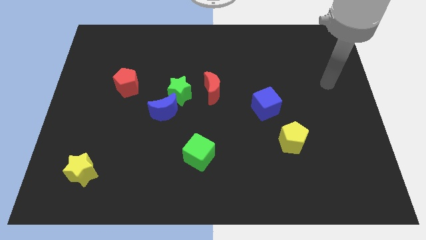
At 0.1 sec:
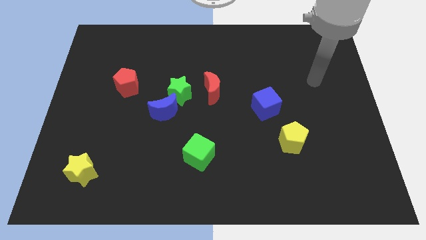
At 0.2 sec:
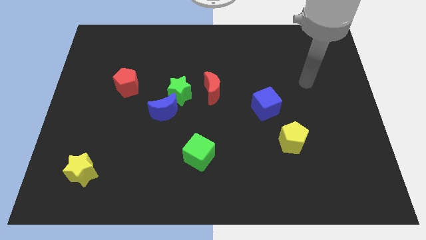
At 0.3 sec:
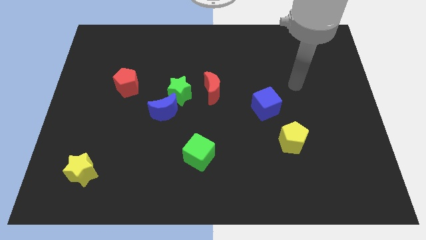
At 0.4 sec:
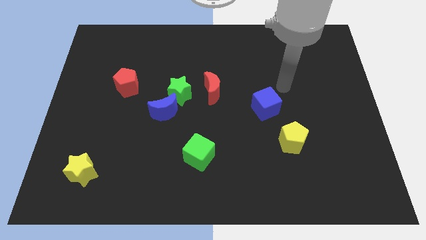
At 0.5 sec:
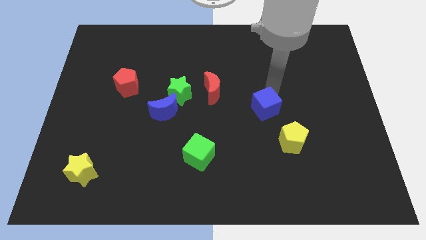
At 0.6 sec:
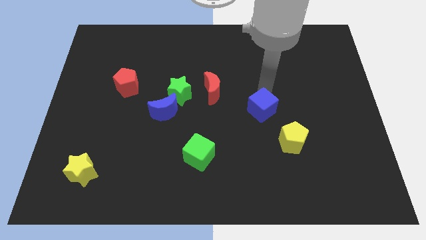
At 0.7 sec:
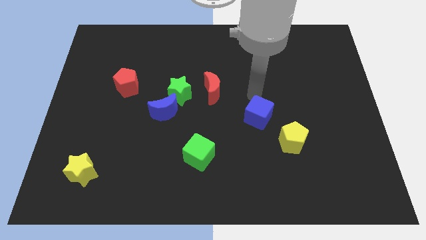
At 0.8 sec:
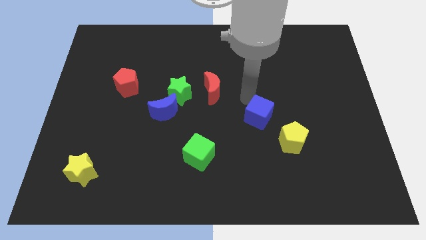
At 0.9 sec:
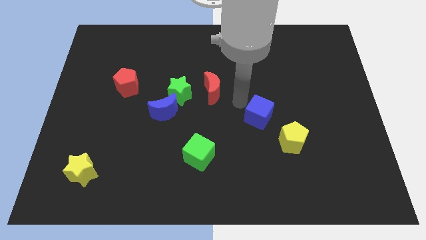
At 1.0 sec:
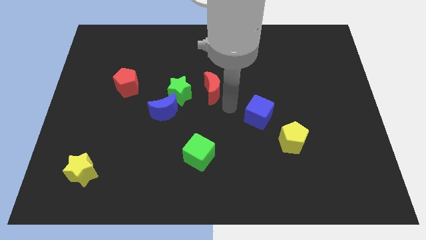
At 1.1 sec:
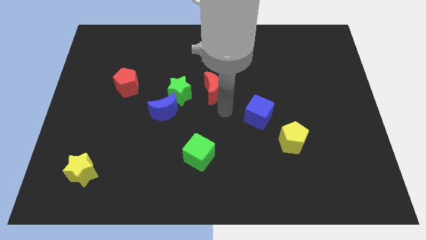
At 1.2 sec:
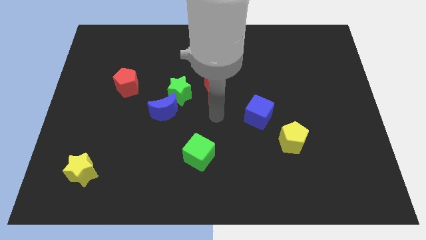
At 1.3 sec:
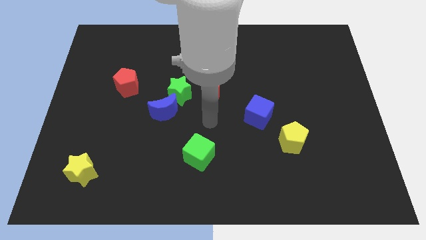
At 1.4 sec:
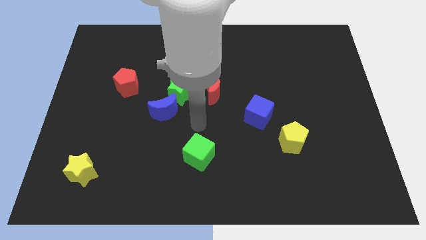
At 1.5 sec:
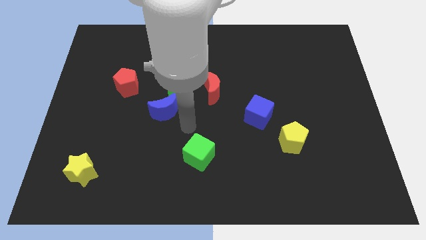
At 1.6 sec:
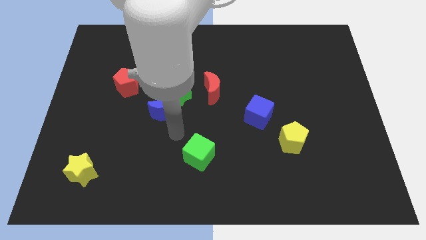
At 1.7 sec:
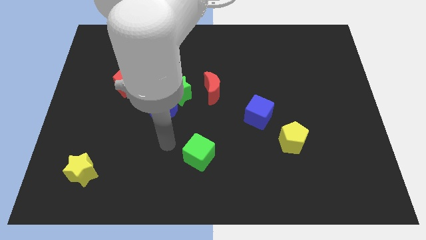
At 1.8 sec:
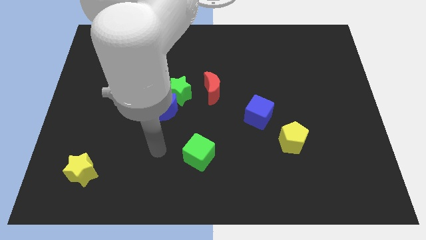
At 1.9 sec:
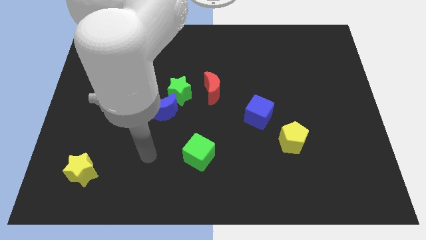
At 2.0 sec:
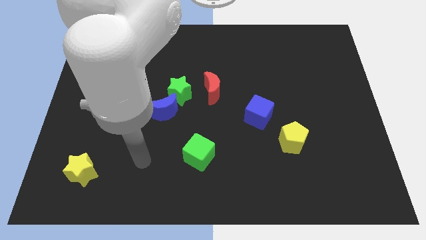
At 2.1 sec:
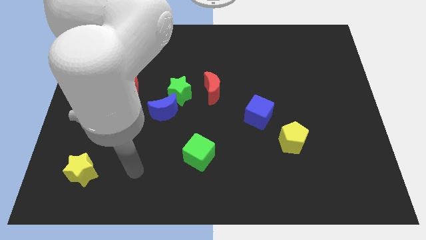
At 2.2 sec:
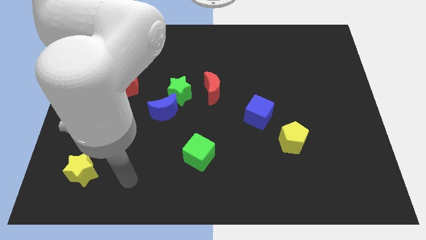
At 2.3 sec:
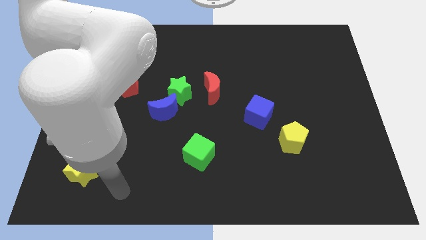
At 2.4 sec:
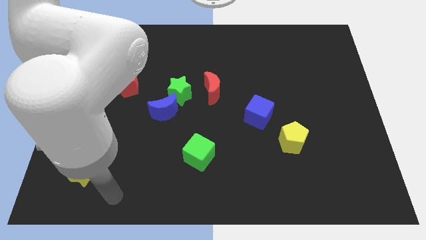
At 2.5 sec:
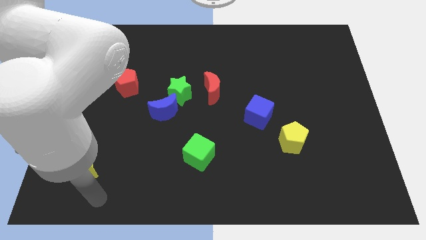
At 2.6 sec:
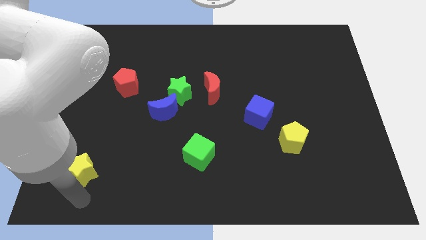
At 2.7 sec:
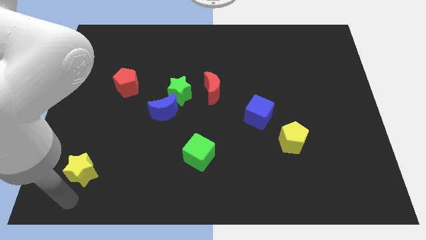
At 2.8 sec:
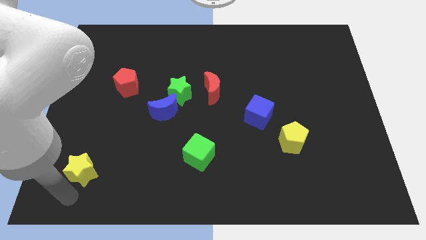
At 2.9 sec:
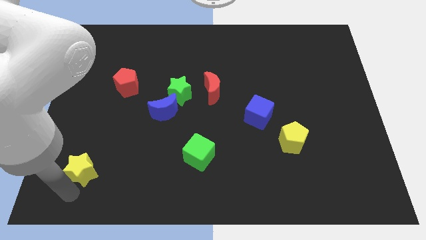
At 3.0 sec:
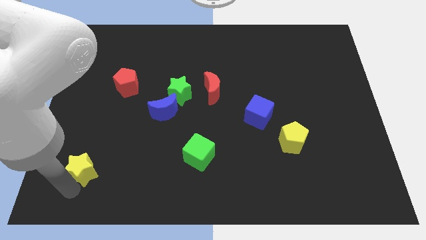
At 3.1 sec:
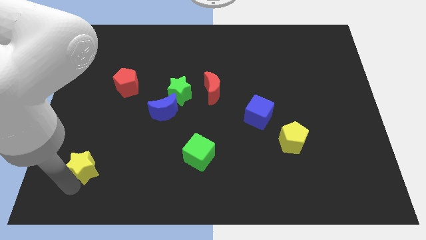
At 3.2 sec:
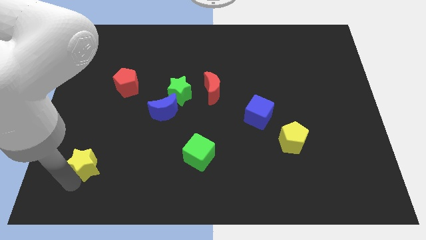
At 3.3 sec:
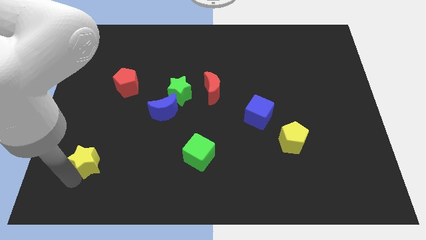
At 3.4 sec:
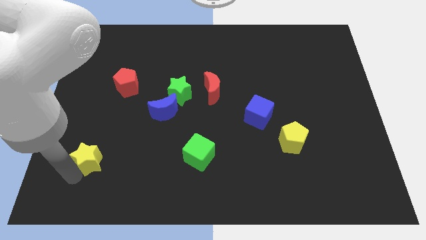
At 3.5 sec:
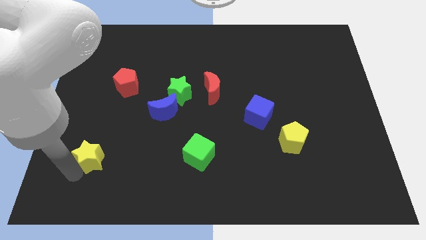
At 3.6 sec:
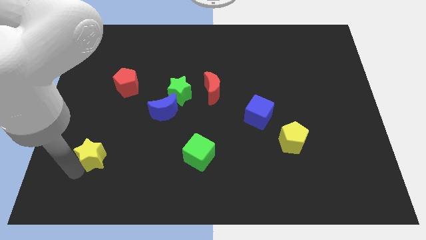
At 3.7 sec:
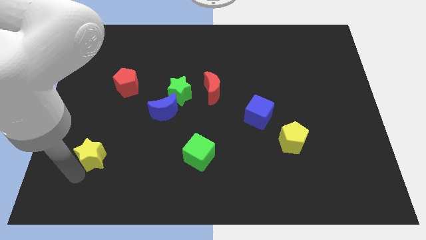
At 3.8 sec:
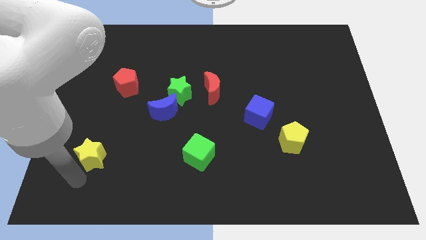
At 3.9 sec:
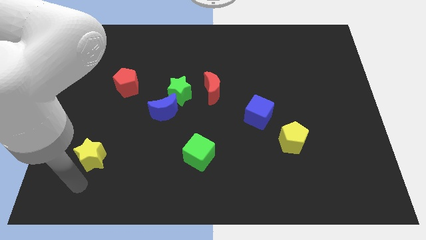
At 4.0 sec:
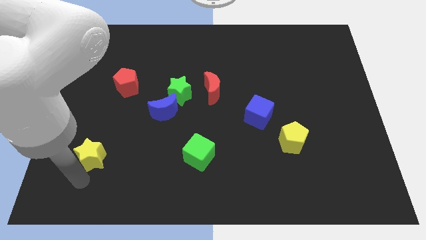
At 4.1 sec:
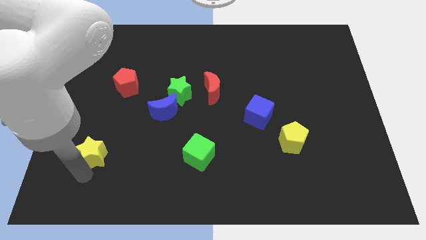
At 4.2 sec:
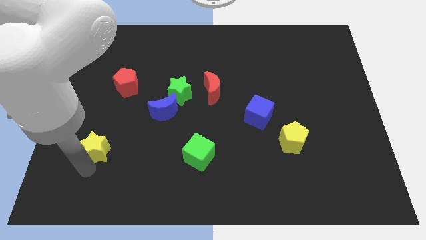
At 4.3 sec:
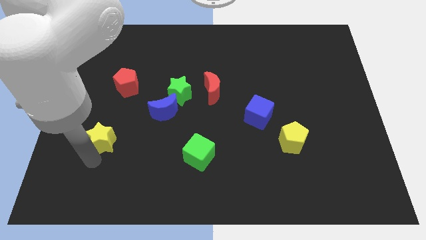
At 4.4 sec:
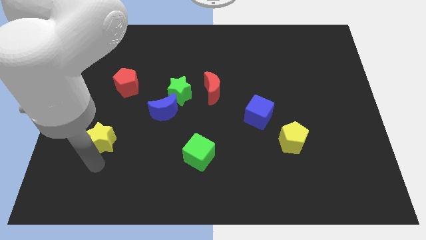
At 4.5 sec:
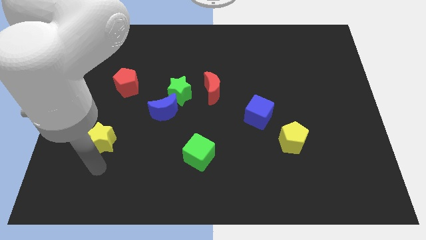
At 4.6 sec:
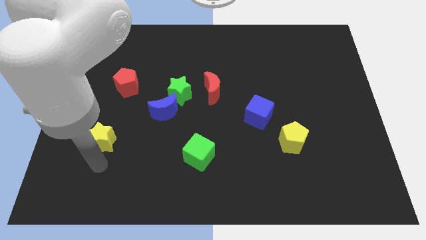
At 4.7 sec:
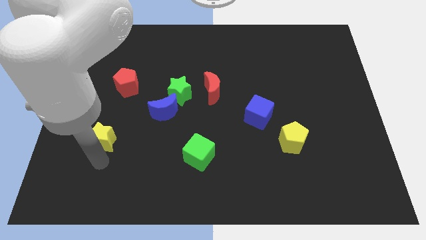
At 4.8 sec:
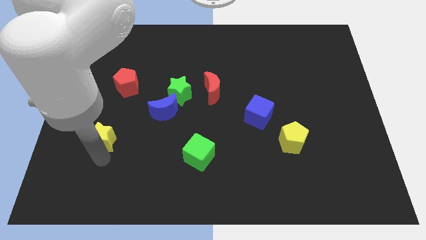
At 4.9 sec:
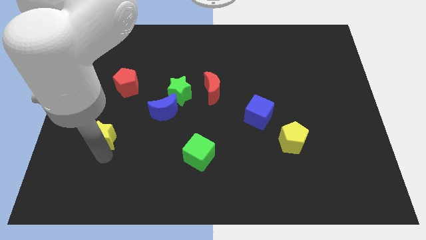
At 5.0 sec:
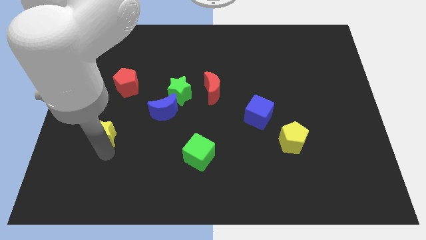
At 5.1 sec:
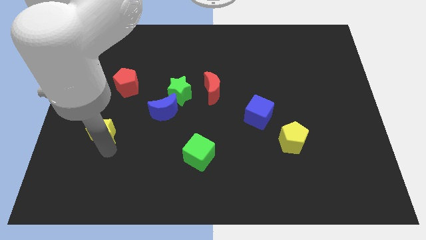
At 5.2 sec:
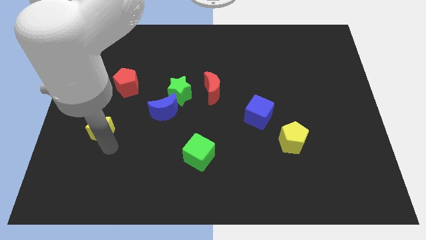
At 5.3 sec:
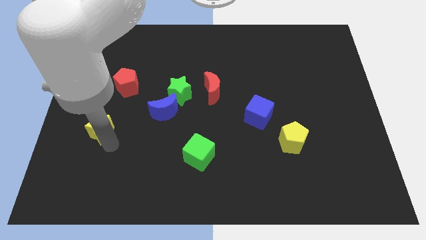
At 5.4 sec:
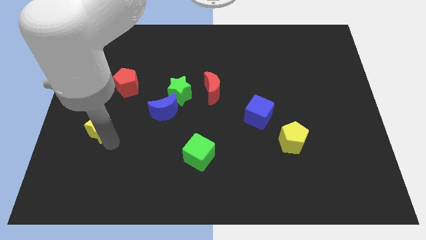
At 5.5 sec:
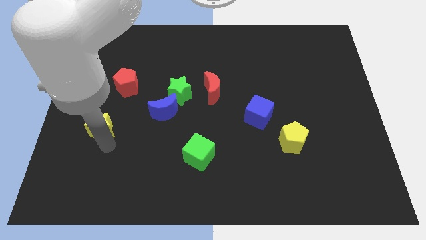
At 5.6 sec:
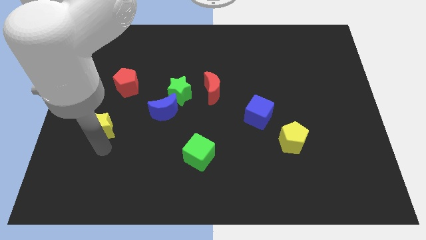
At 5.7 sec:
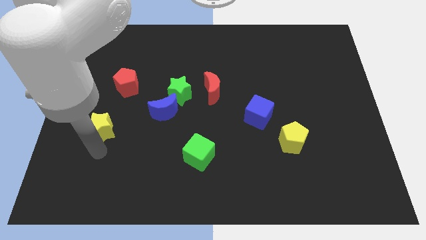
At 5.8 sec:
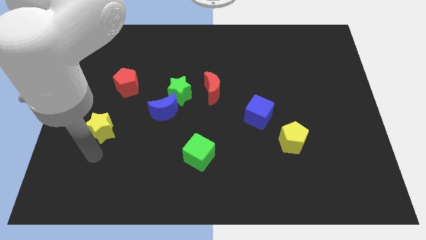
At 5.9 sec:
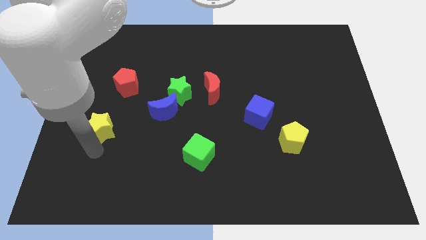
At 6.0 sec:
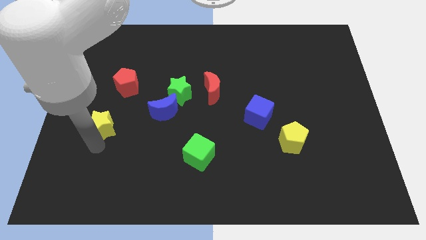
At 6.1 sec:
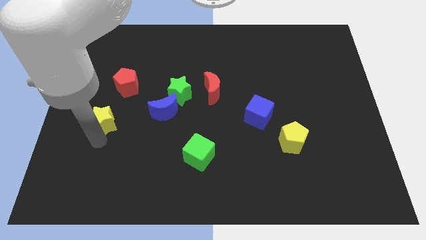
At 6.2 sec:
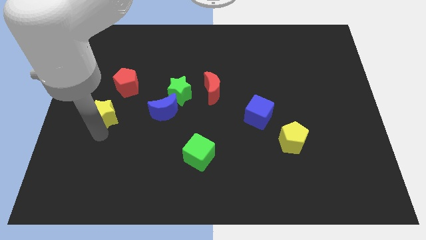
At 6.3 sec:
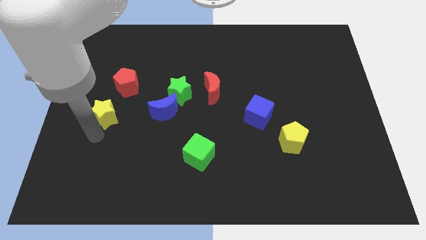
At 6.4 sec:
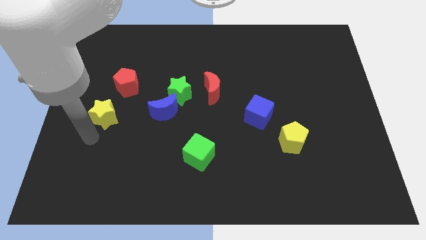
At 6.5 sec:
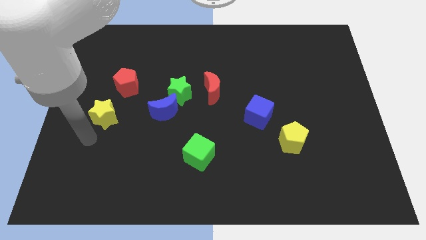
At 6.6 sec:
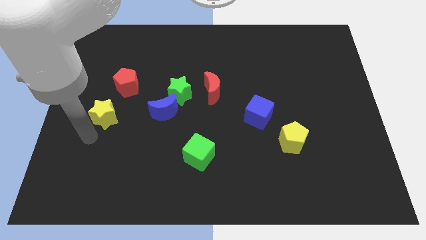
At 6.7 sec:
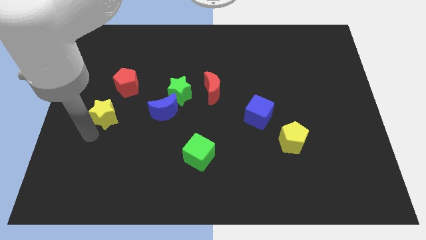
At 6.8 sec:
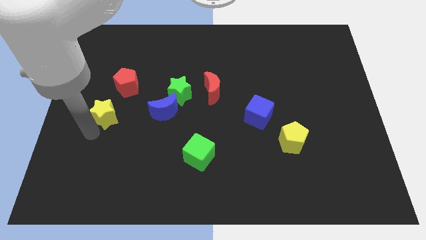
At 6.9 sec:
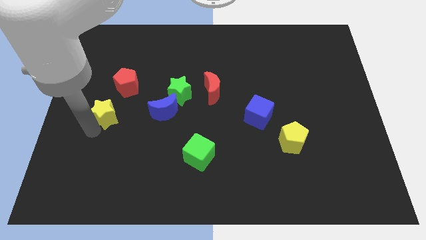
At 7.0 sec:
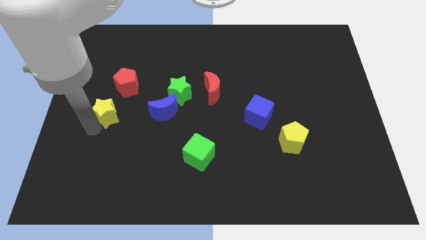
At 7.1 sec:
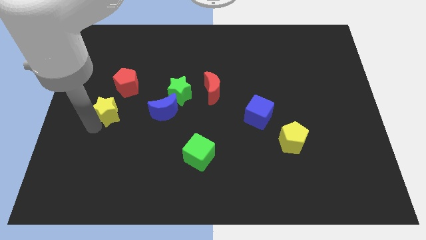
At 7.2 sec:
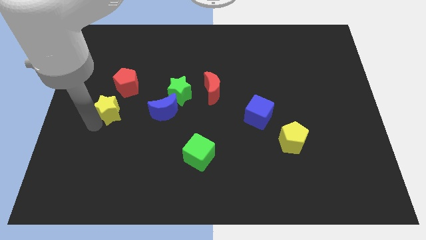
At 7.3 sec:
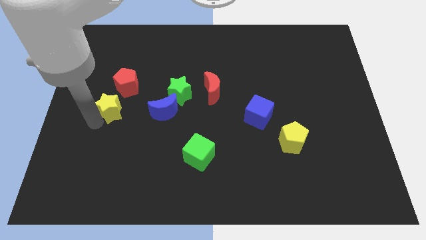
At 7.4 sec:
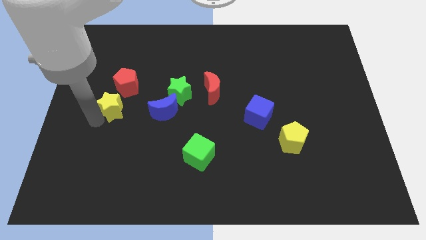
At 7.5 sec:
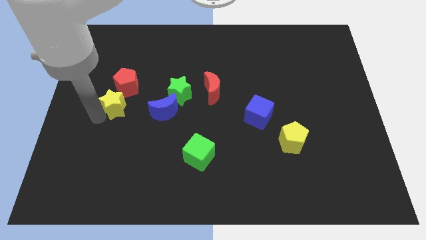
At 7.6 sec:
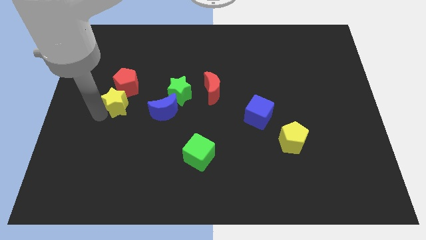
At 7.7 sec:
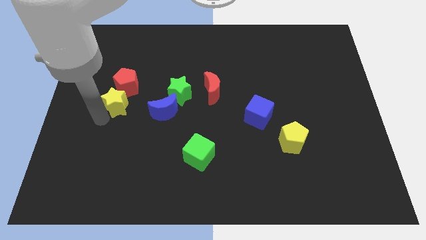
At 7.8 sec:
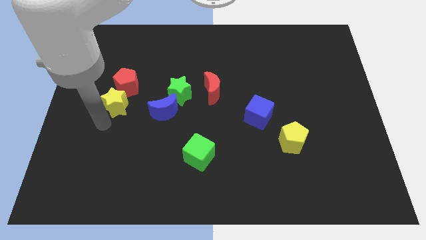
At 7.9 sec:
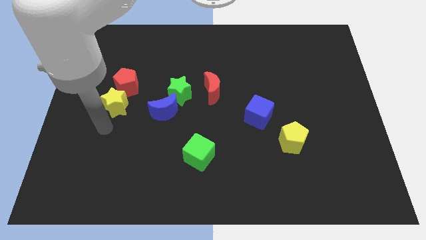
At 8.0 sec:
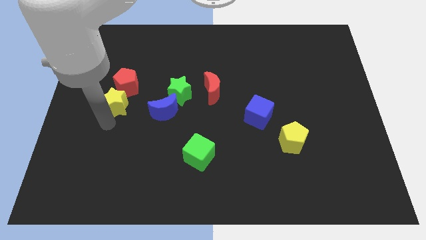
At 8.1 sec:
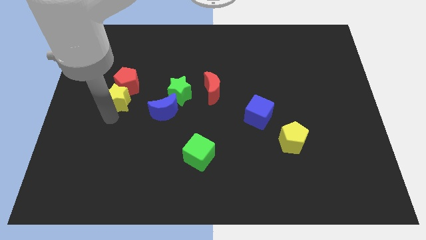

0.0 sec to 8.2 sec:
push the yellow star towards the red pentagon
